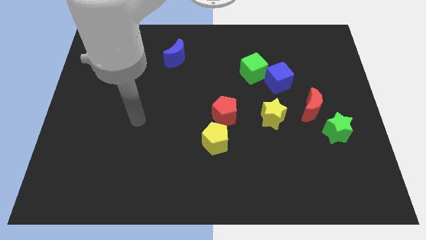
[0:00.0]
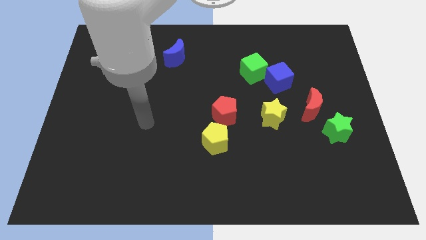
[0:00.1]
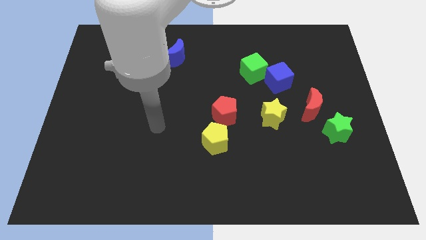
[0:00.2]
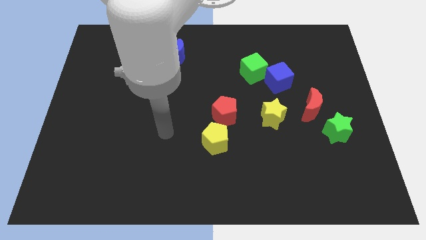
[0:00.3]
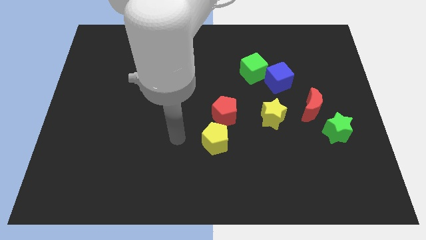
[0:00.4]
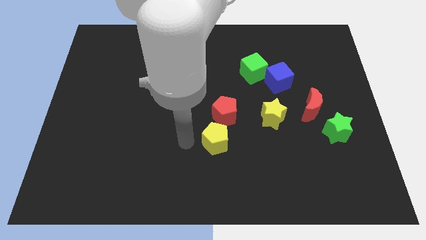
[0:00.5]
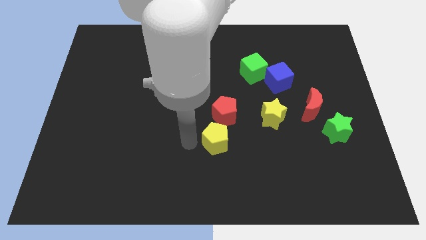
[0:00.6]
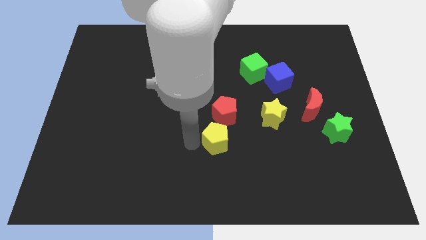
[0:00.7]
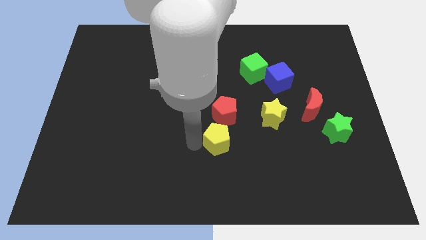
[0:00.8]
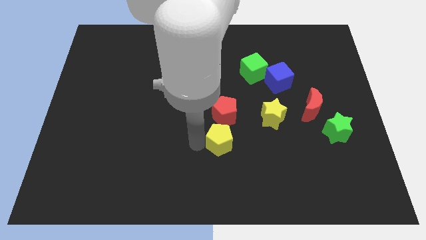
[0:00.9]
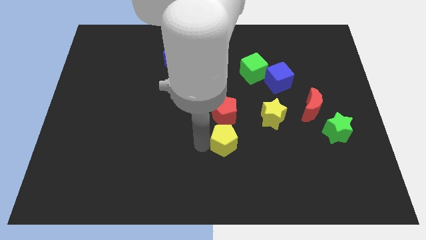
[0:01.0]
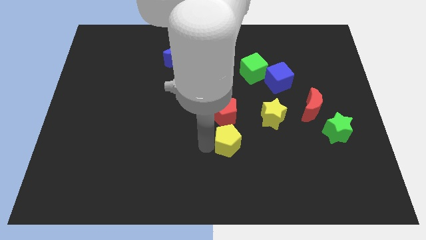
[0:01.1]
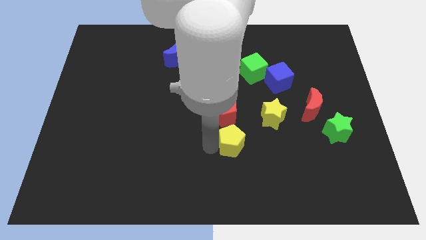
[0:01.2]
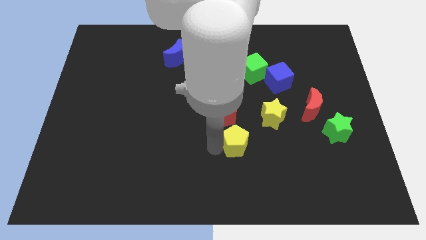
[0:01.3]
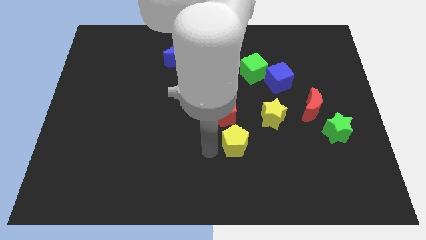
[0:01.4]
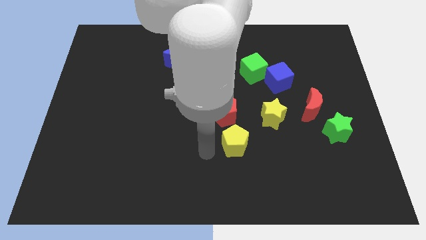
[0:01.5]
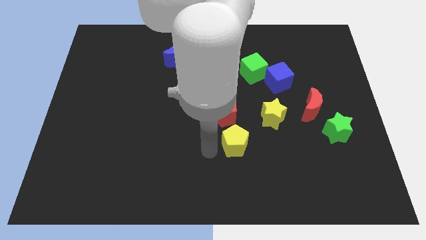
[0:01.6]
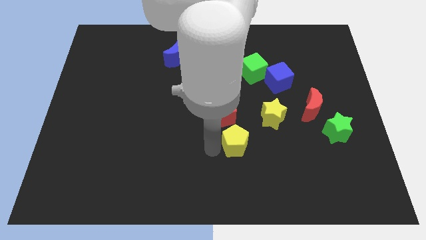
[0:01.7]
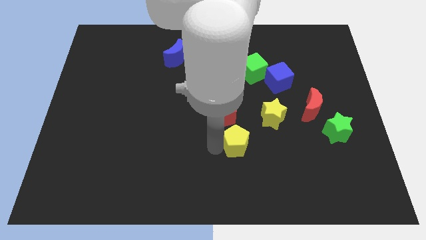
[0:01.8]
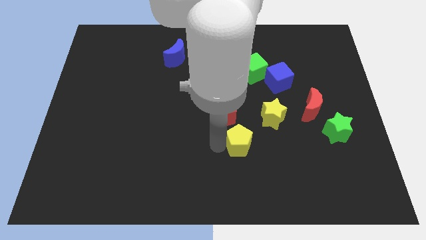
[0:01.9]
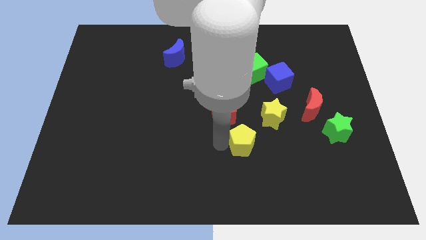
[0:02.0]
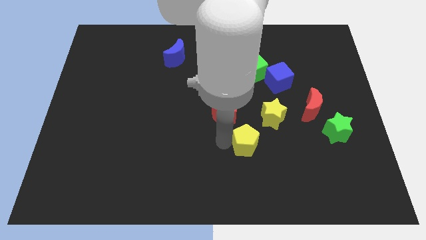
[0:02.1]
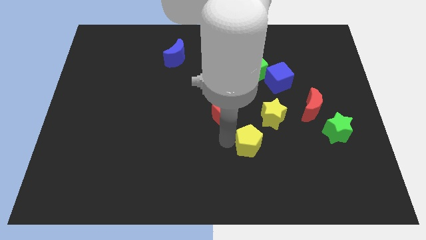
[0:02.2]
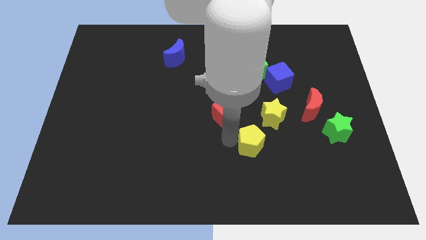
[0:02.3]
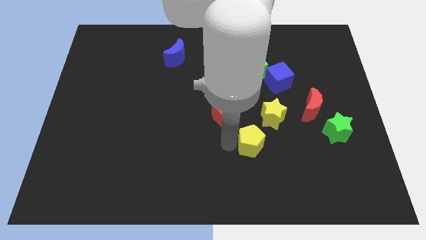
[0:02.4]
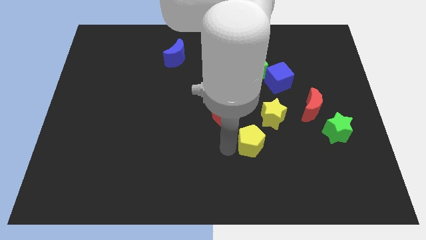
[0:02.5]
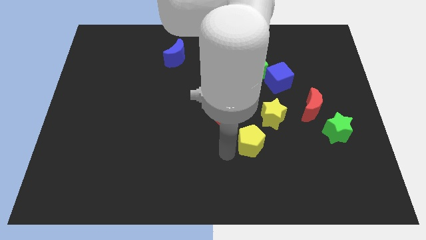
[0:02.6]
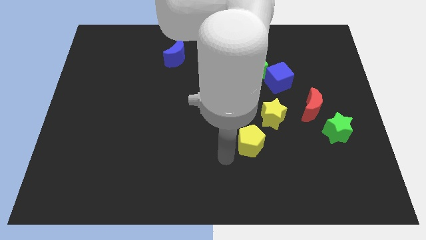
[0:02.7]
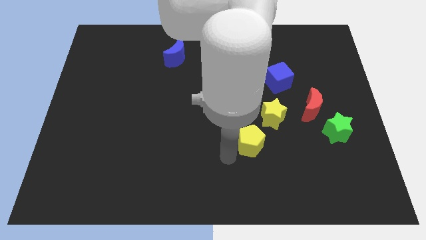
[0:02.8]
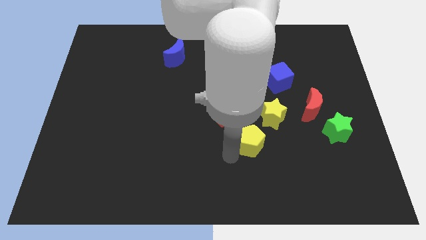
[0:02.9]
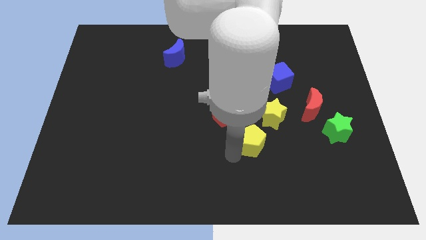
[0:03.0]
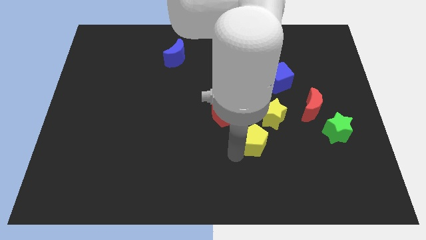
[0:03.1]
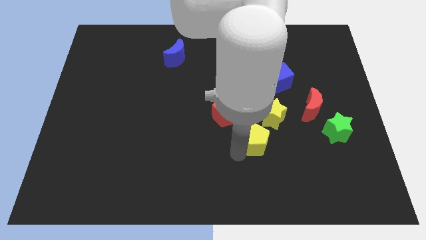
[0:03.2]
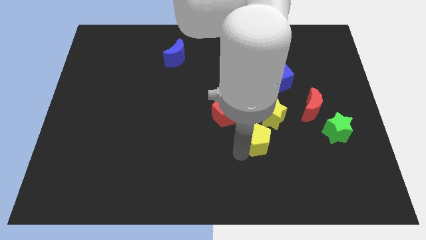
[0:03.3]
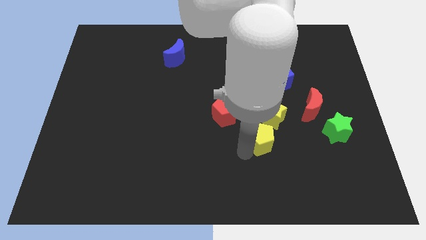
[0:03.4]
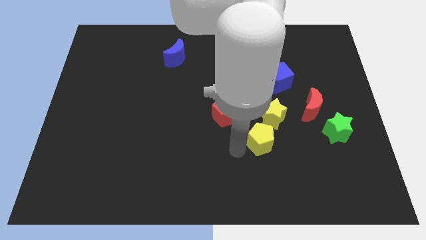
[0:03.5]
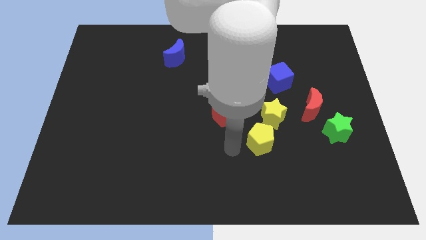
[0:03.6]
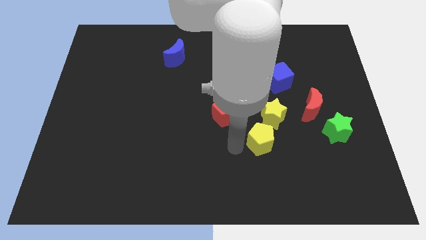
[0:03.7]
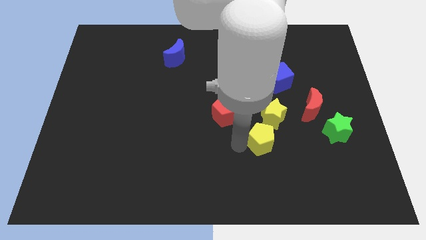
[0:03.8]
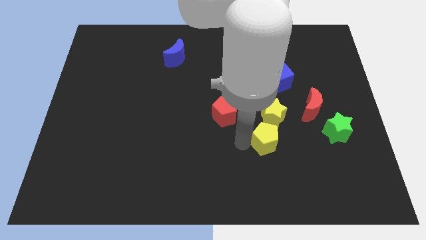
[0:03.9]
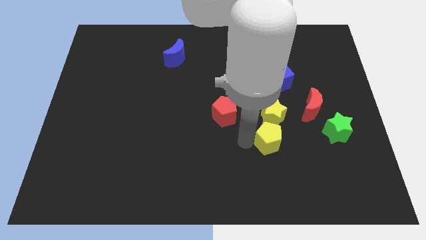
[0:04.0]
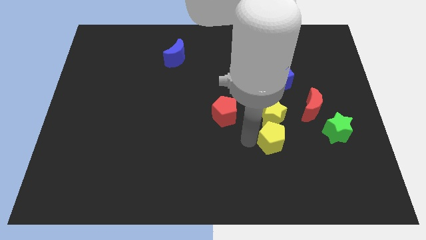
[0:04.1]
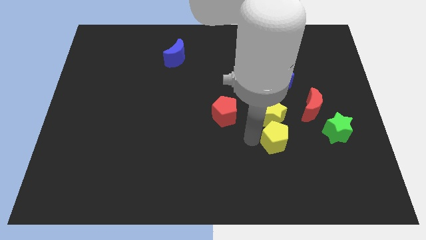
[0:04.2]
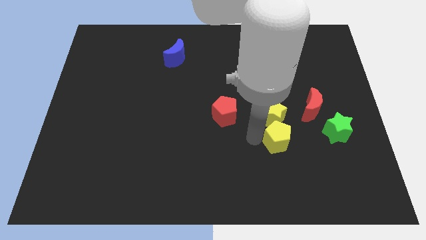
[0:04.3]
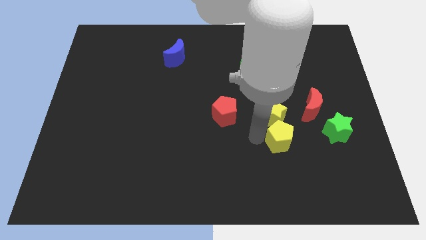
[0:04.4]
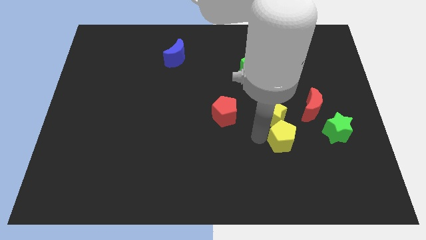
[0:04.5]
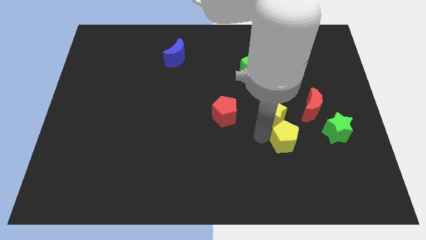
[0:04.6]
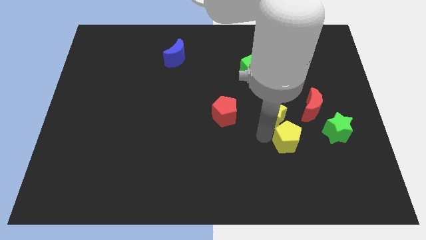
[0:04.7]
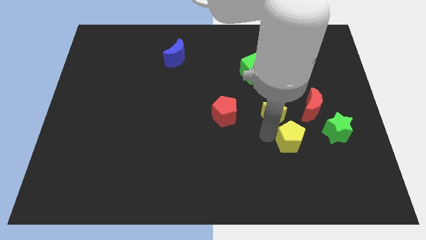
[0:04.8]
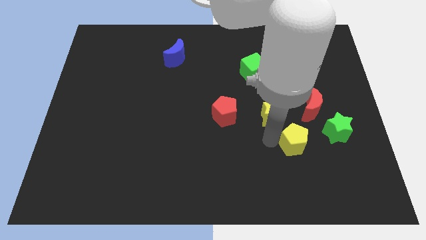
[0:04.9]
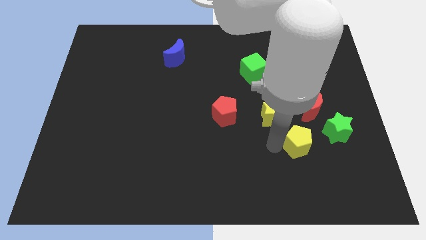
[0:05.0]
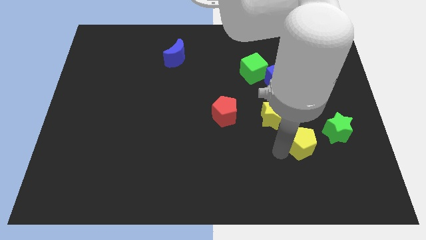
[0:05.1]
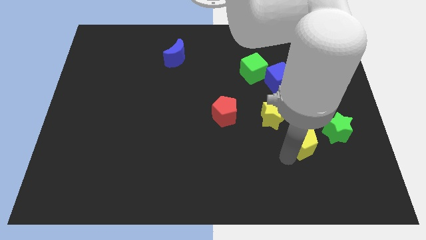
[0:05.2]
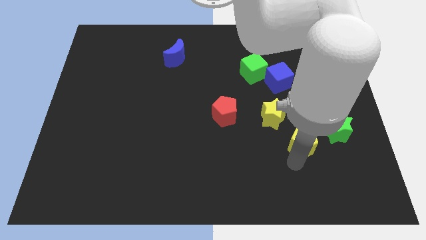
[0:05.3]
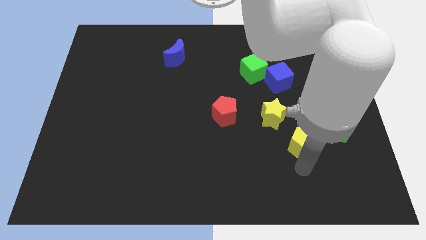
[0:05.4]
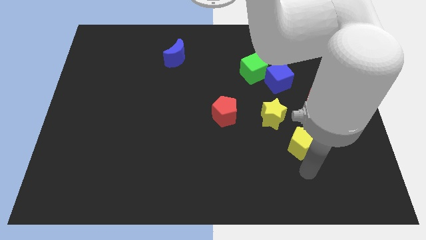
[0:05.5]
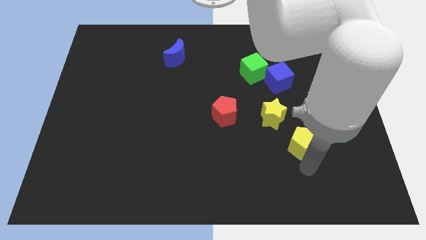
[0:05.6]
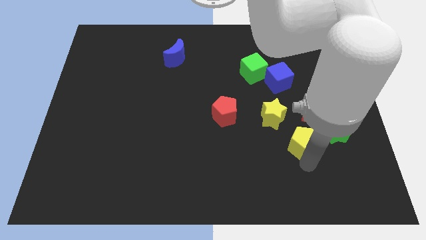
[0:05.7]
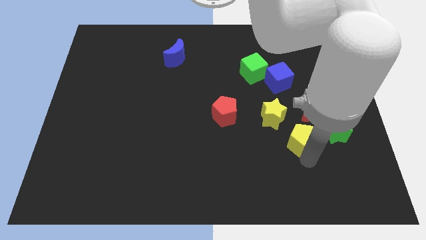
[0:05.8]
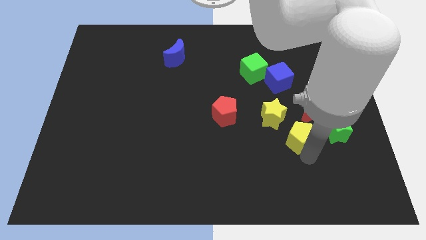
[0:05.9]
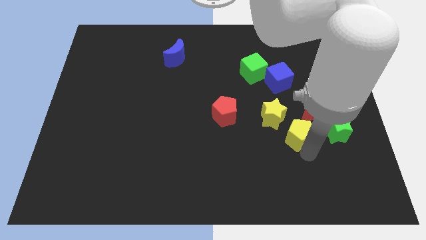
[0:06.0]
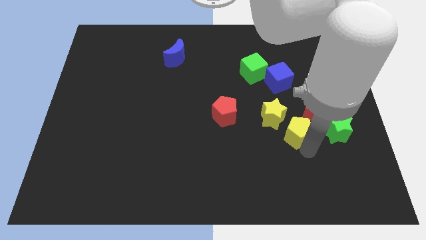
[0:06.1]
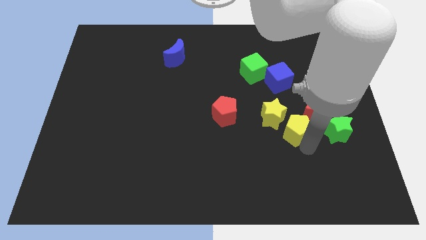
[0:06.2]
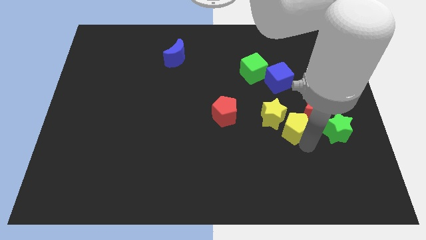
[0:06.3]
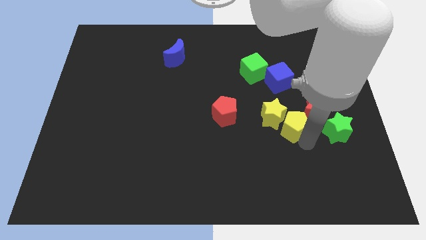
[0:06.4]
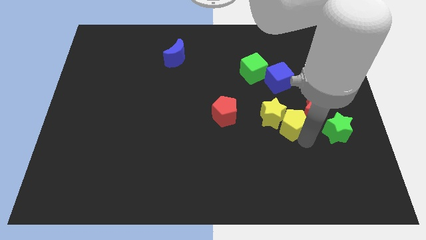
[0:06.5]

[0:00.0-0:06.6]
move the yellow pentagon to the right side of the red pentagon

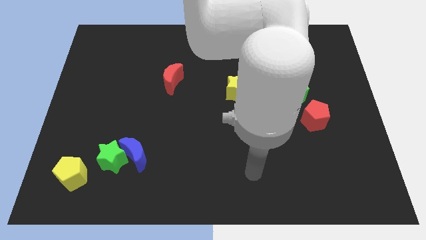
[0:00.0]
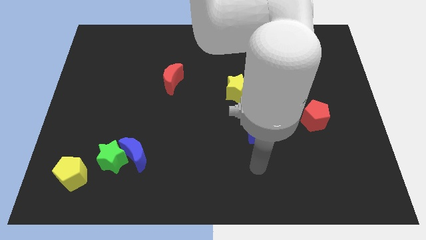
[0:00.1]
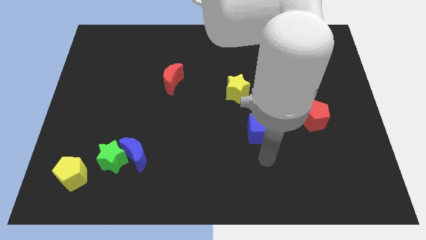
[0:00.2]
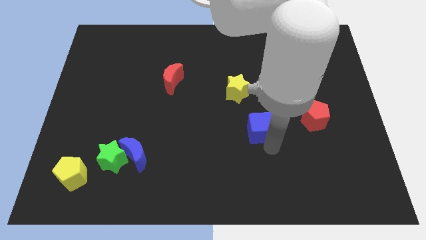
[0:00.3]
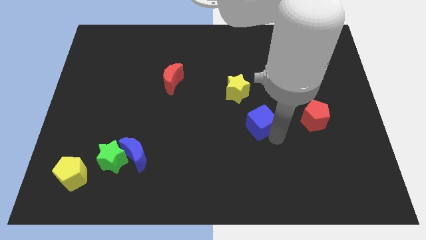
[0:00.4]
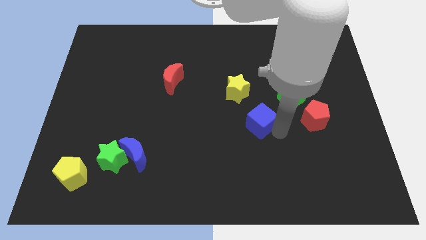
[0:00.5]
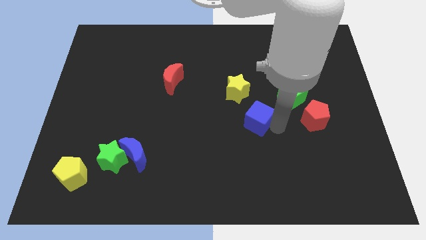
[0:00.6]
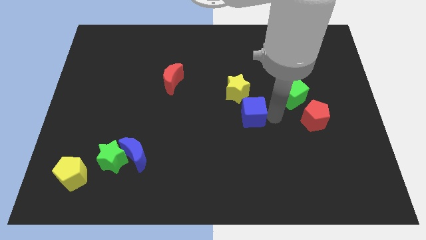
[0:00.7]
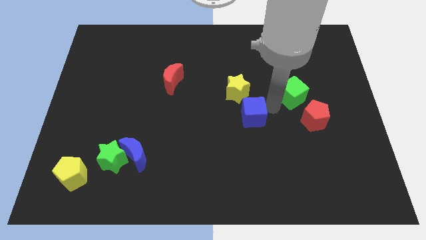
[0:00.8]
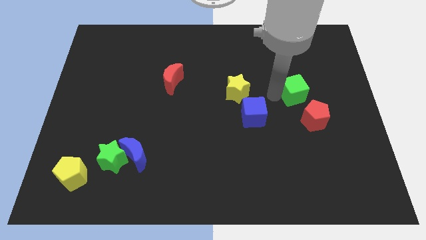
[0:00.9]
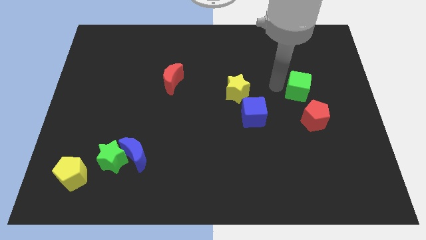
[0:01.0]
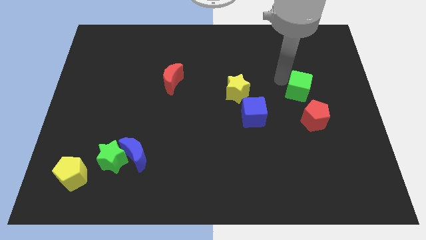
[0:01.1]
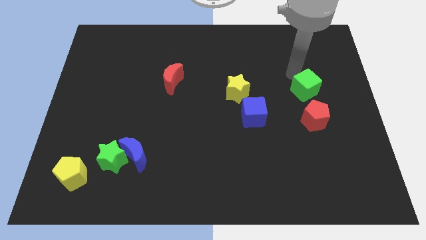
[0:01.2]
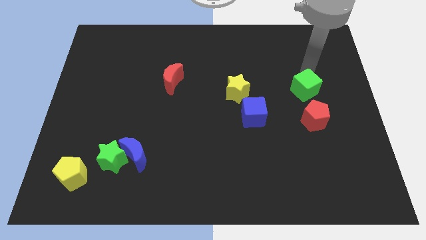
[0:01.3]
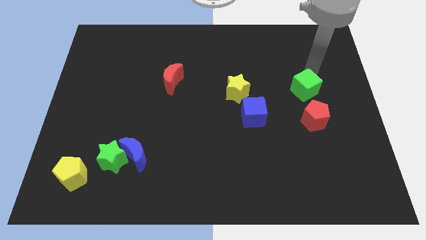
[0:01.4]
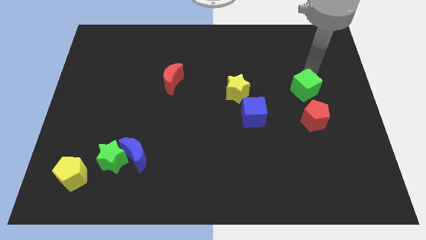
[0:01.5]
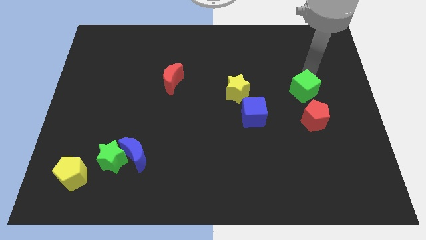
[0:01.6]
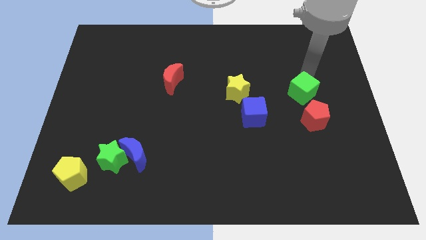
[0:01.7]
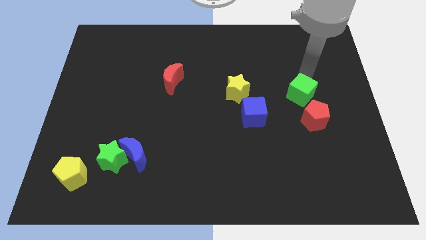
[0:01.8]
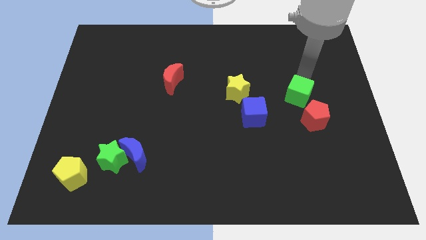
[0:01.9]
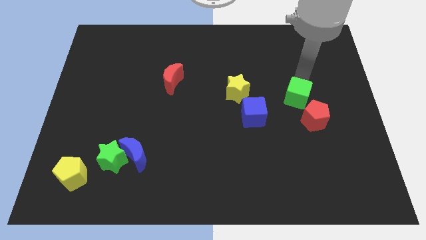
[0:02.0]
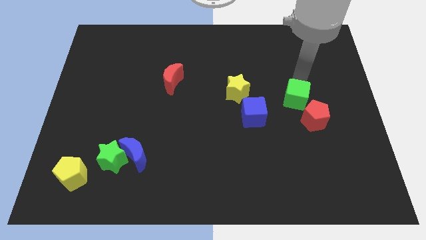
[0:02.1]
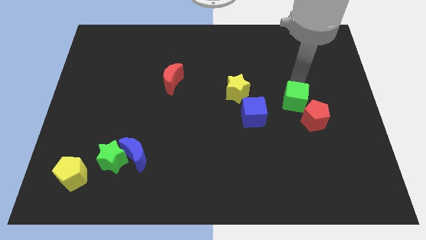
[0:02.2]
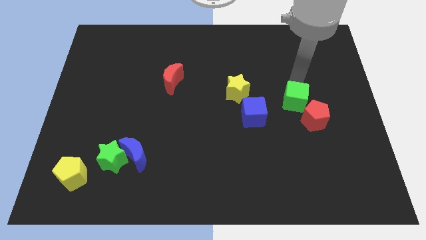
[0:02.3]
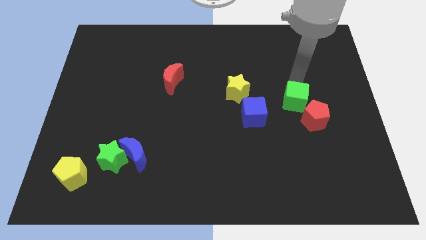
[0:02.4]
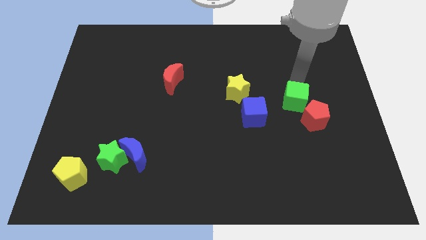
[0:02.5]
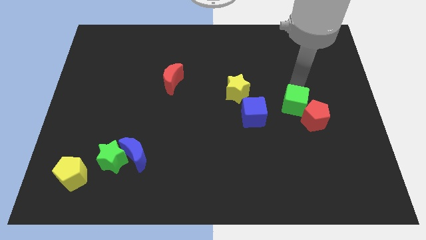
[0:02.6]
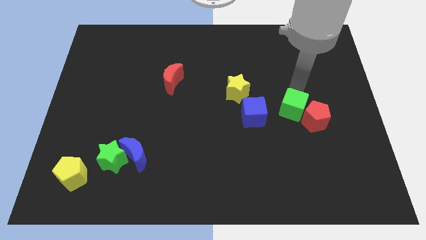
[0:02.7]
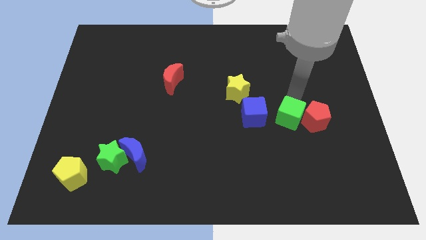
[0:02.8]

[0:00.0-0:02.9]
push the green cube to the bottom left side of the red pentagon
